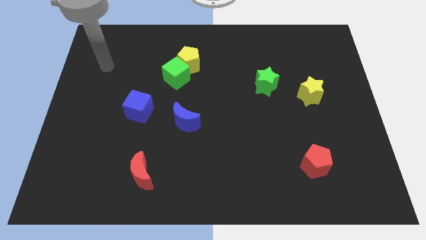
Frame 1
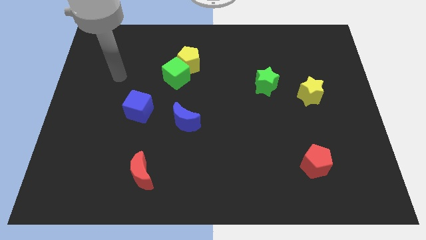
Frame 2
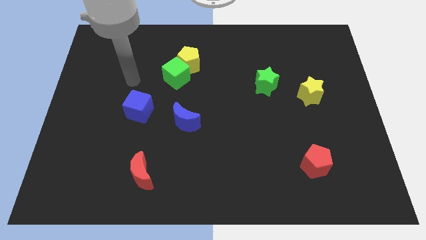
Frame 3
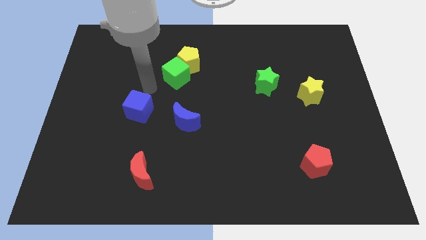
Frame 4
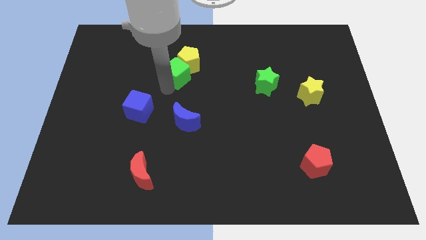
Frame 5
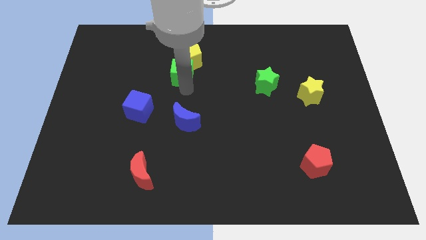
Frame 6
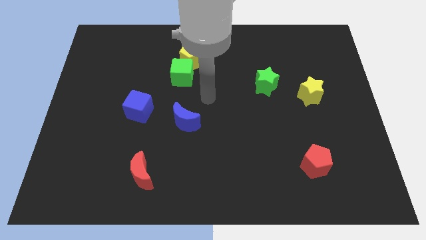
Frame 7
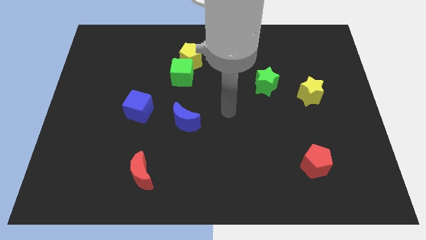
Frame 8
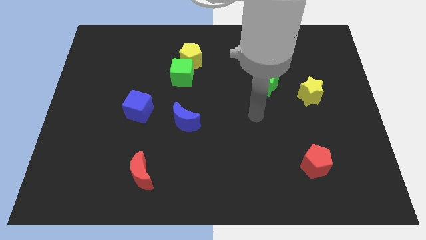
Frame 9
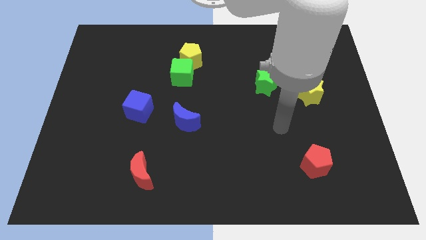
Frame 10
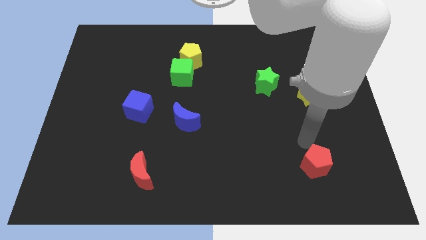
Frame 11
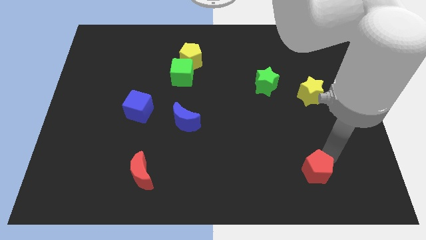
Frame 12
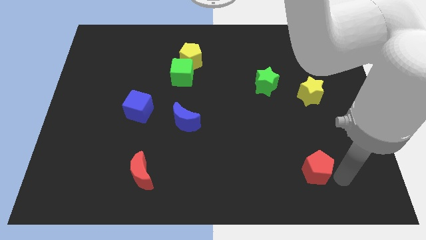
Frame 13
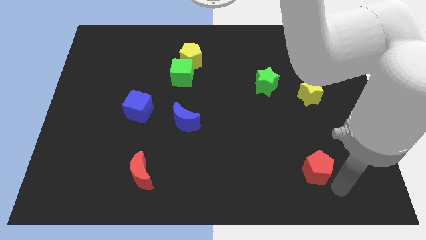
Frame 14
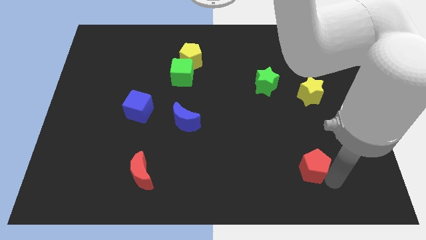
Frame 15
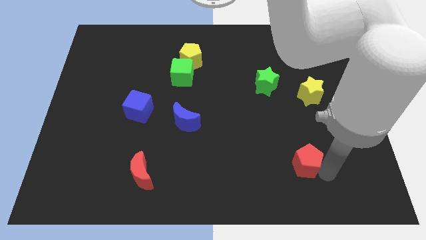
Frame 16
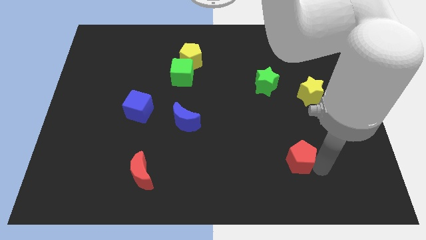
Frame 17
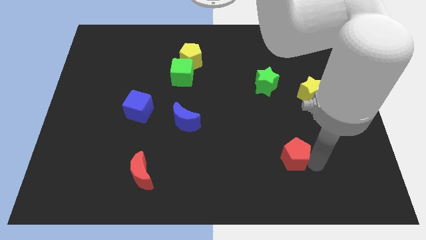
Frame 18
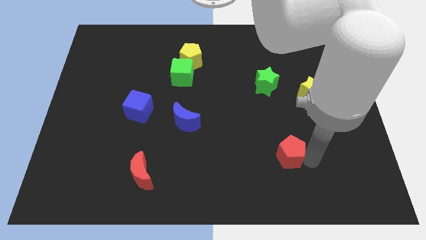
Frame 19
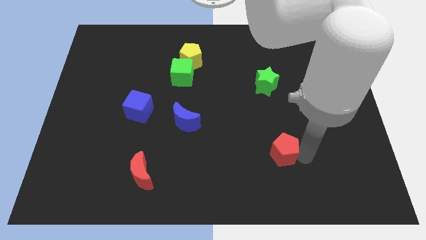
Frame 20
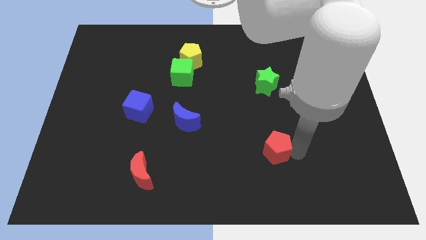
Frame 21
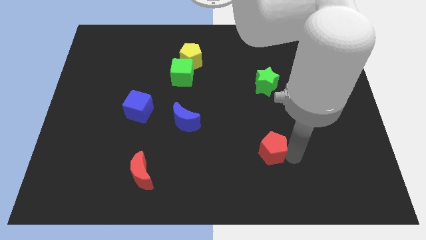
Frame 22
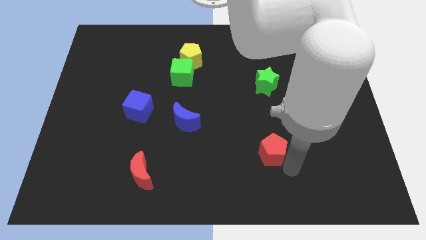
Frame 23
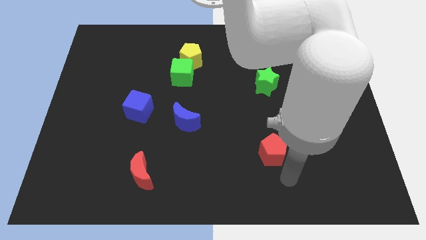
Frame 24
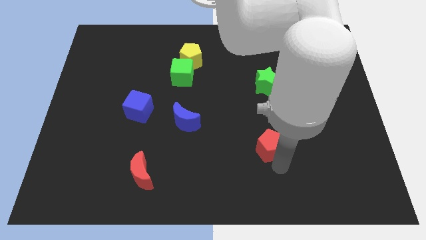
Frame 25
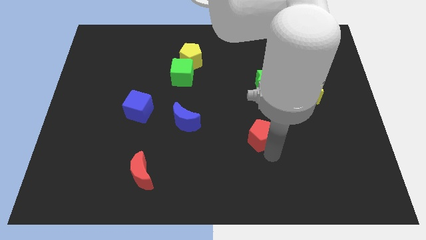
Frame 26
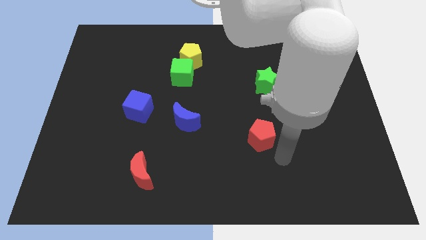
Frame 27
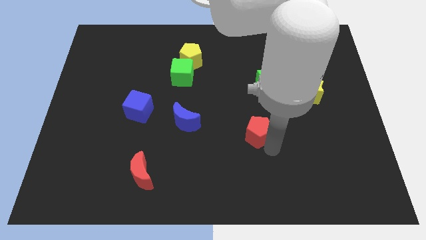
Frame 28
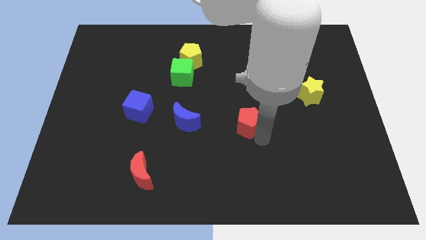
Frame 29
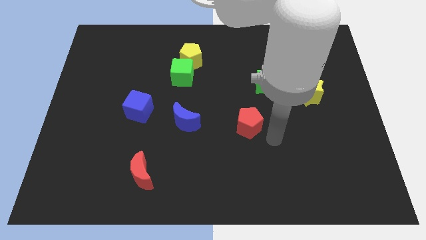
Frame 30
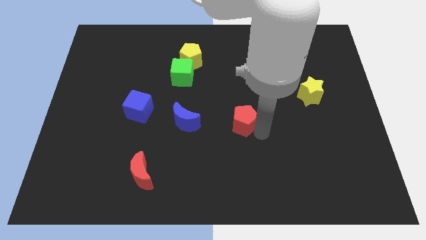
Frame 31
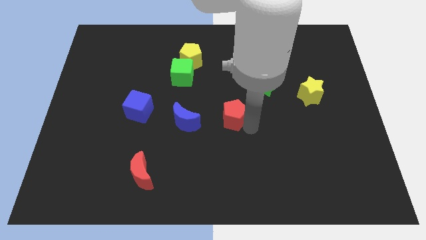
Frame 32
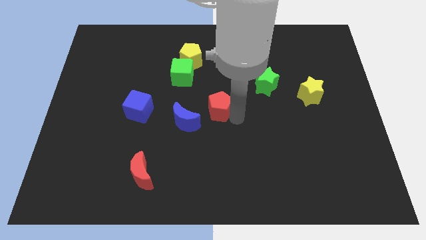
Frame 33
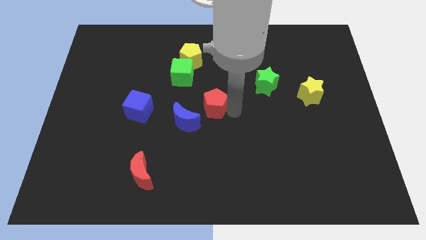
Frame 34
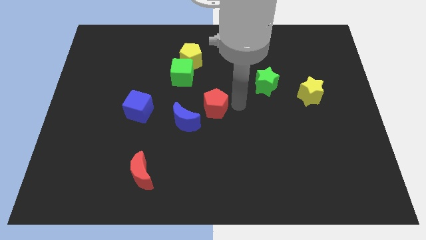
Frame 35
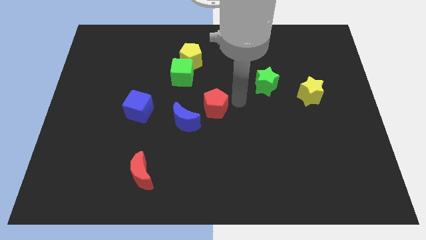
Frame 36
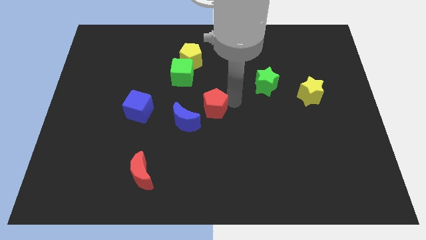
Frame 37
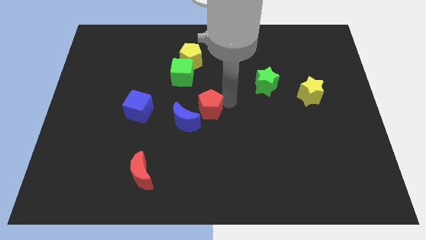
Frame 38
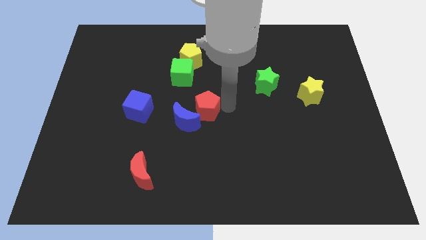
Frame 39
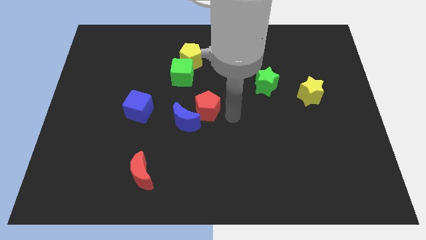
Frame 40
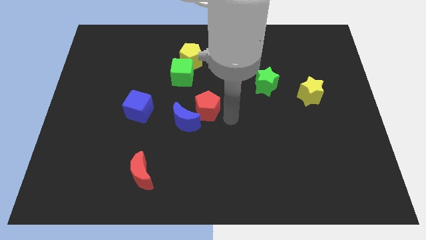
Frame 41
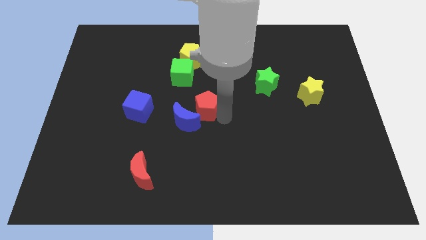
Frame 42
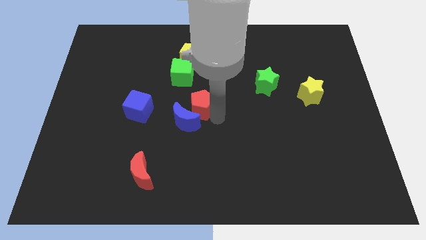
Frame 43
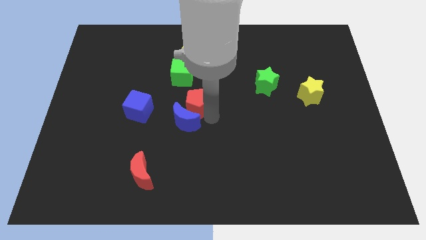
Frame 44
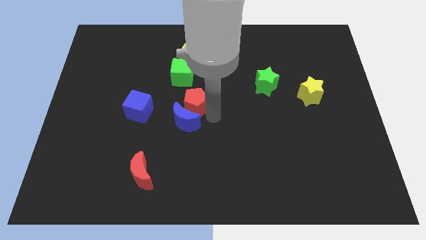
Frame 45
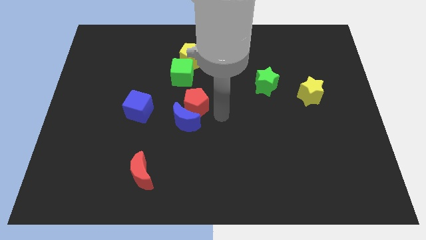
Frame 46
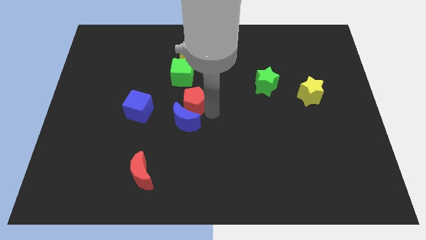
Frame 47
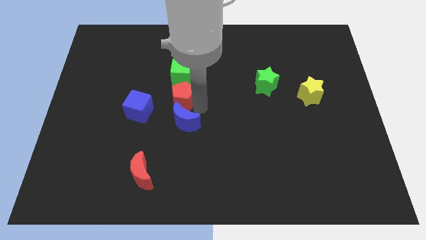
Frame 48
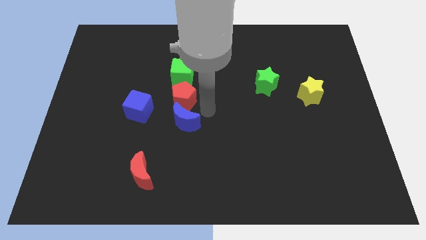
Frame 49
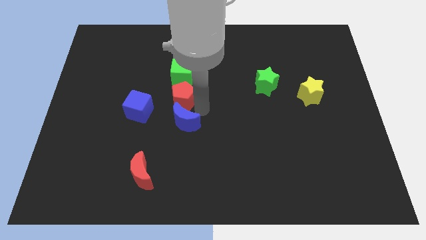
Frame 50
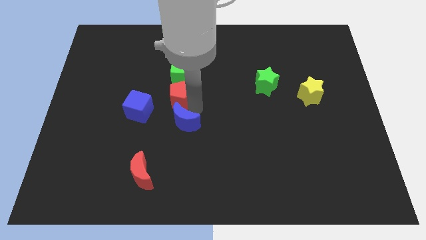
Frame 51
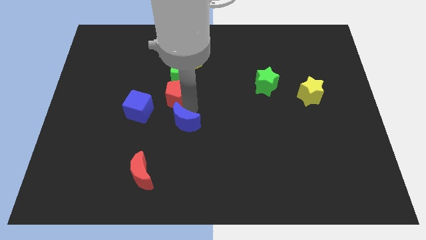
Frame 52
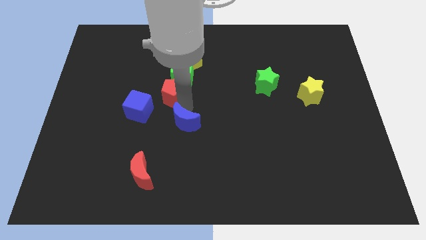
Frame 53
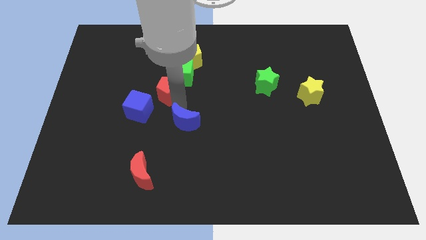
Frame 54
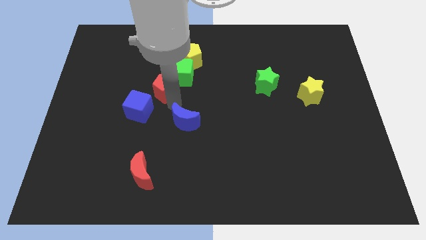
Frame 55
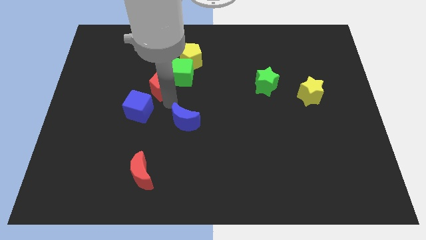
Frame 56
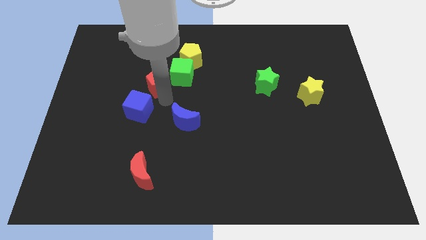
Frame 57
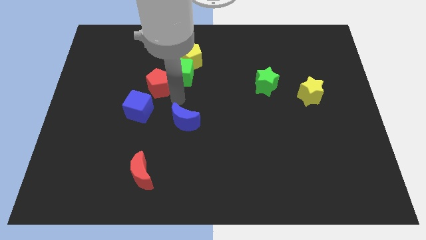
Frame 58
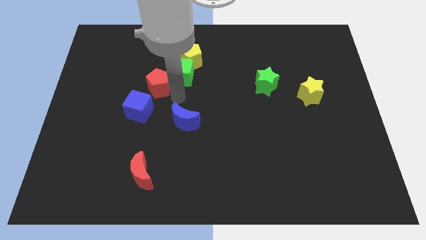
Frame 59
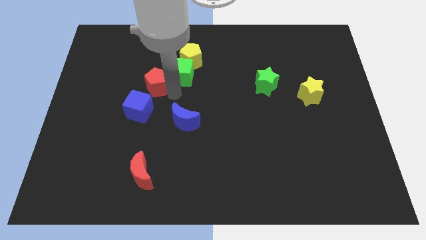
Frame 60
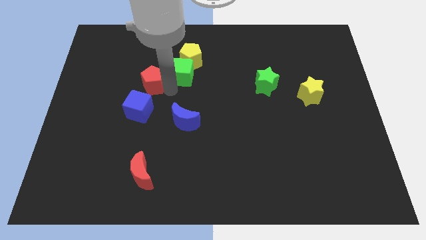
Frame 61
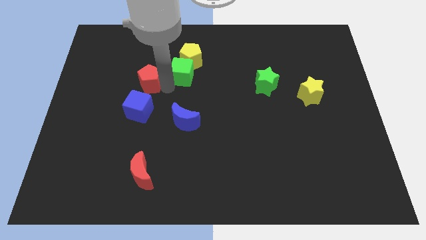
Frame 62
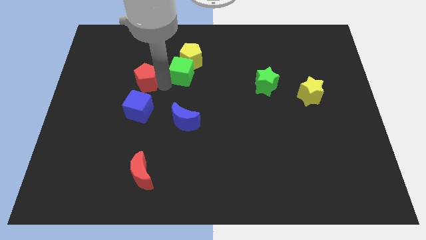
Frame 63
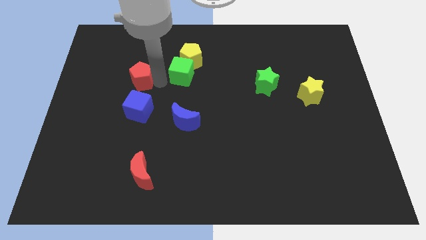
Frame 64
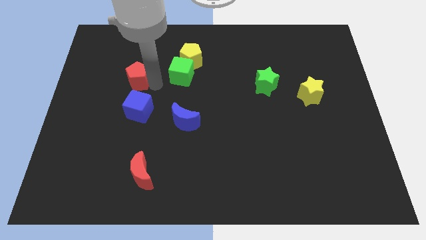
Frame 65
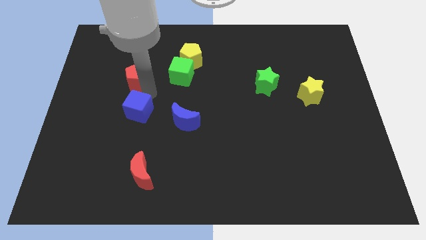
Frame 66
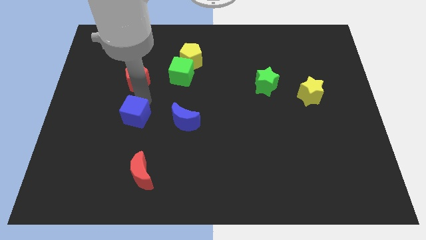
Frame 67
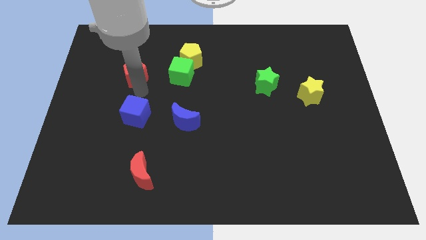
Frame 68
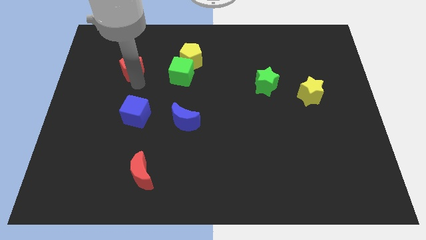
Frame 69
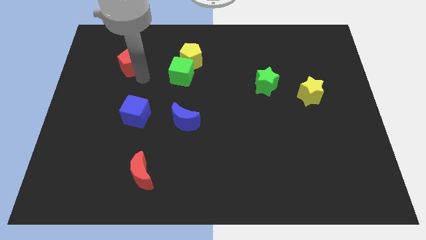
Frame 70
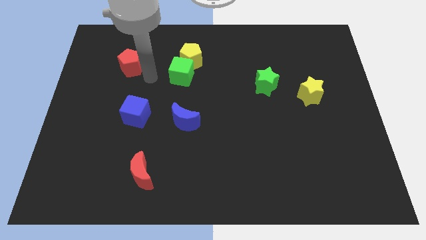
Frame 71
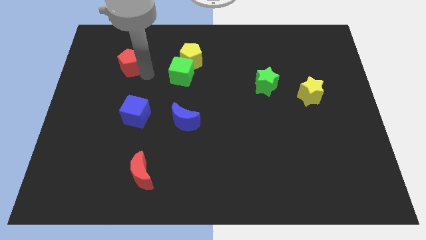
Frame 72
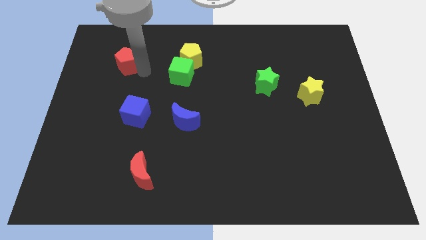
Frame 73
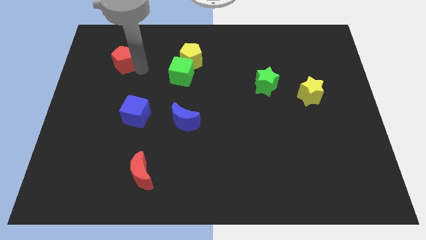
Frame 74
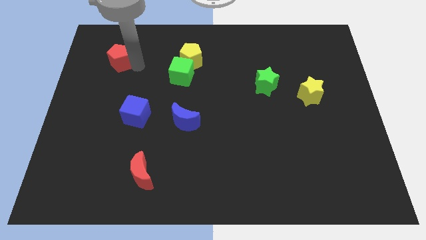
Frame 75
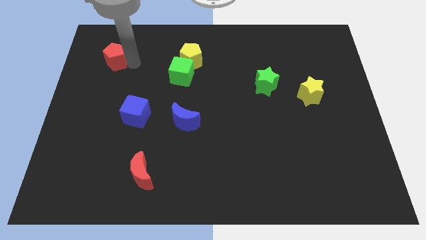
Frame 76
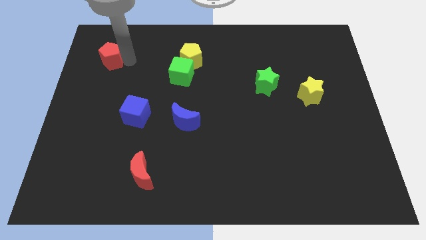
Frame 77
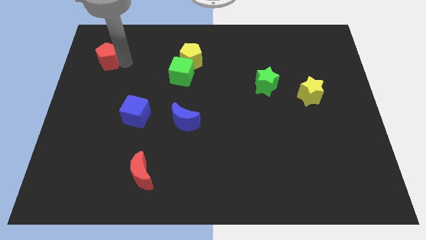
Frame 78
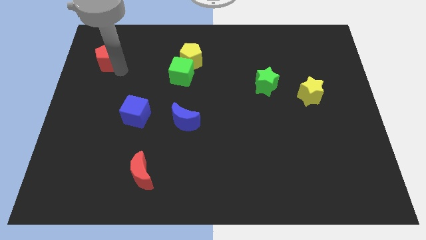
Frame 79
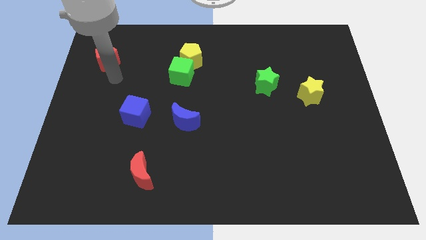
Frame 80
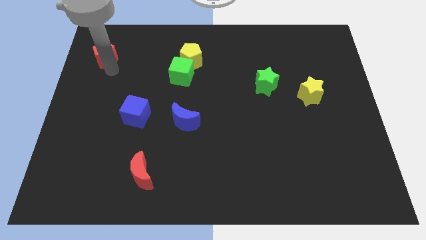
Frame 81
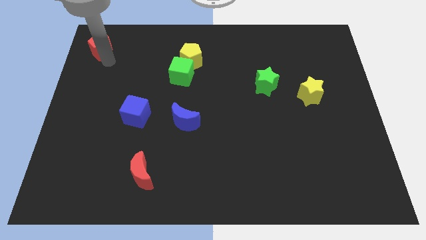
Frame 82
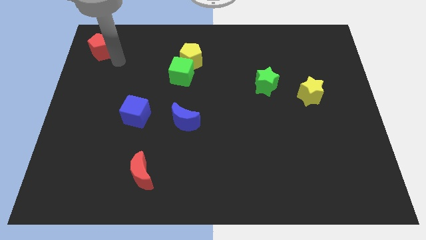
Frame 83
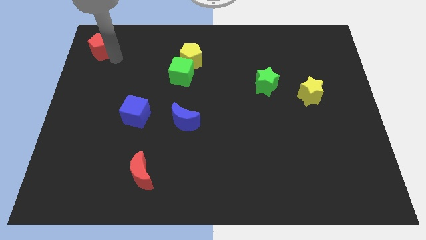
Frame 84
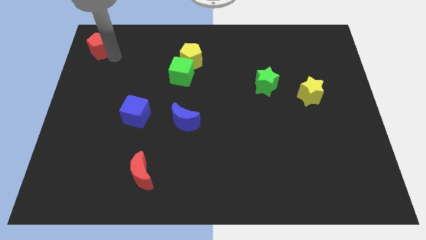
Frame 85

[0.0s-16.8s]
move the red pentagon to the top left corner
